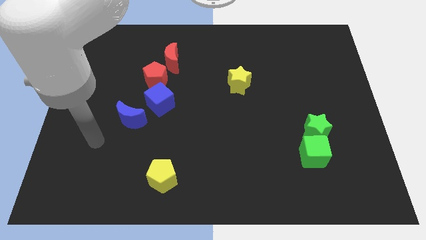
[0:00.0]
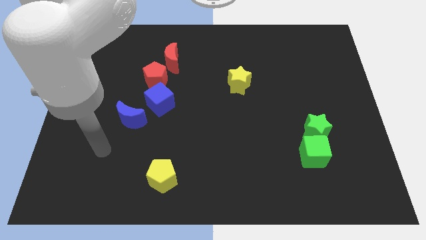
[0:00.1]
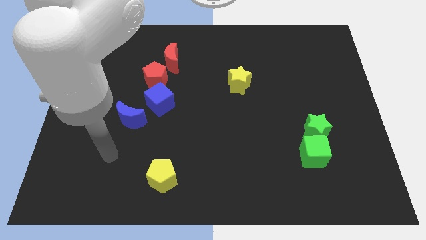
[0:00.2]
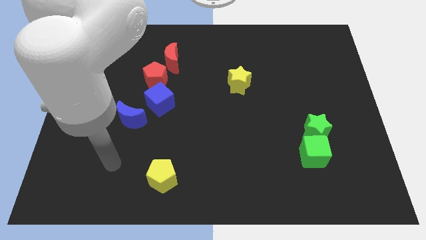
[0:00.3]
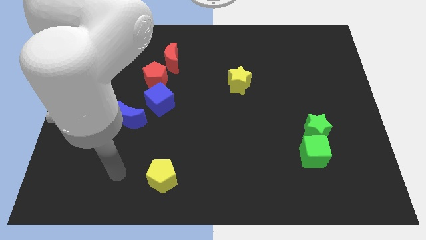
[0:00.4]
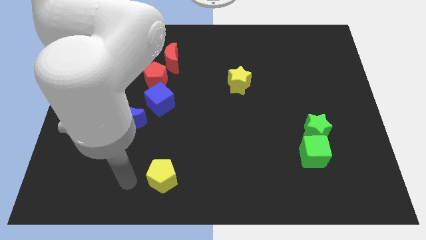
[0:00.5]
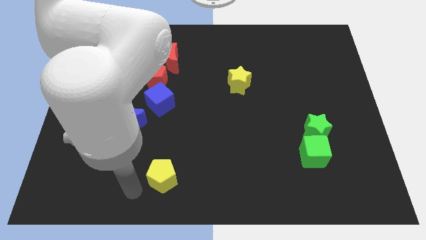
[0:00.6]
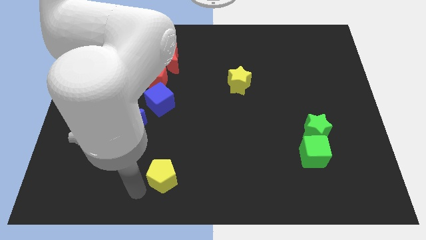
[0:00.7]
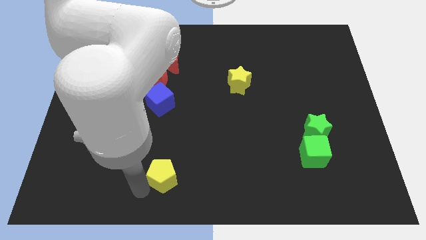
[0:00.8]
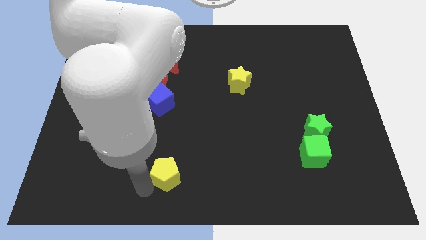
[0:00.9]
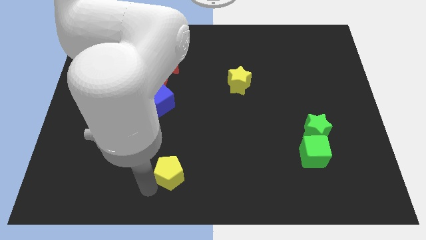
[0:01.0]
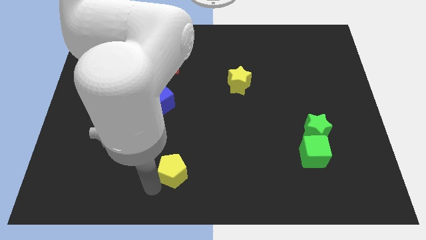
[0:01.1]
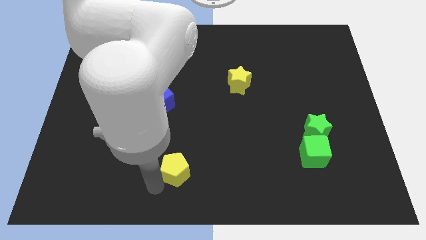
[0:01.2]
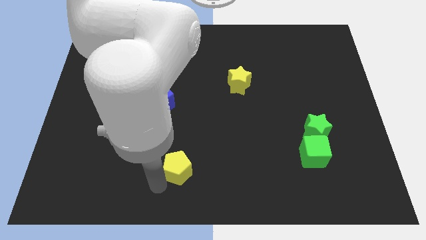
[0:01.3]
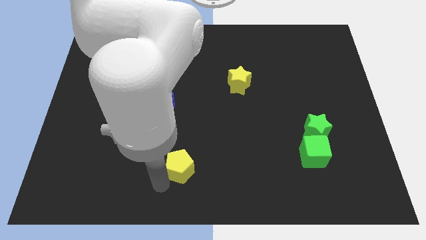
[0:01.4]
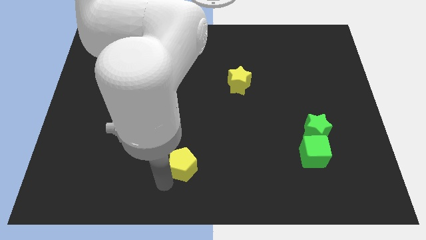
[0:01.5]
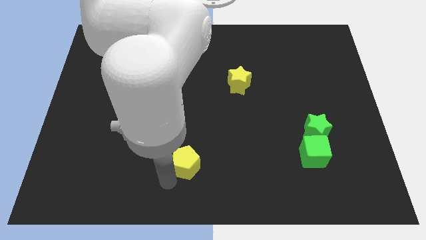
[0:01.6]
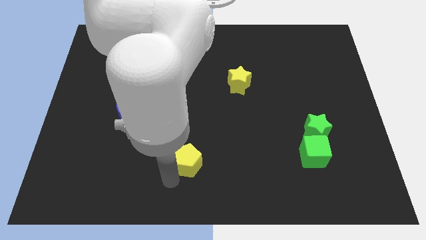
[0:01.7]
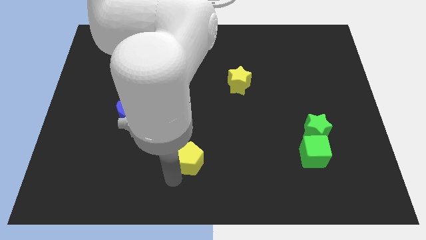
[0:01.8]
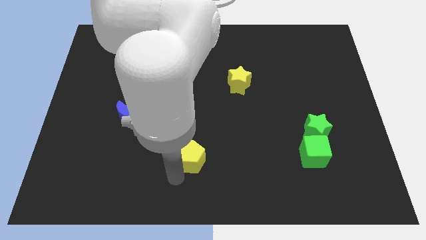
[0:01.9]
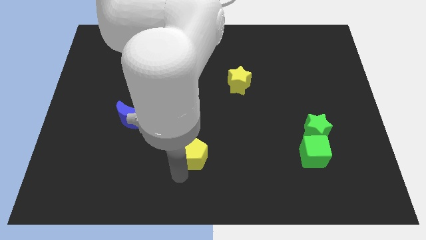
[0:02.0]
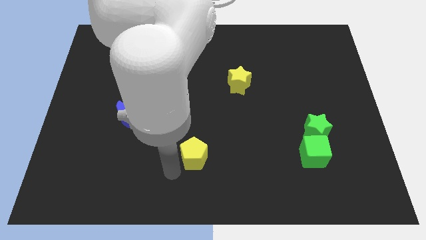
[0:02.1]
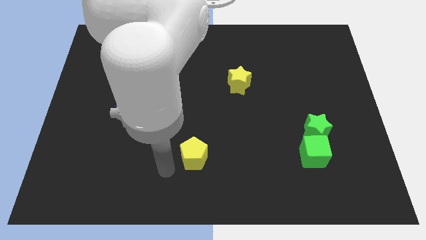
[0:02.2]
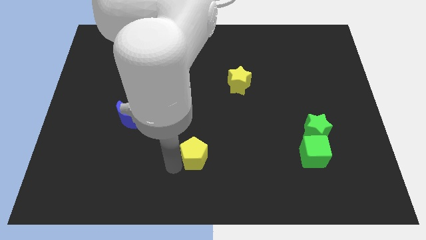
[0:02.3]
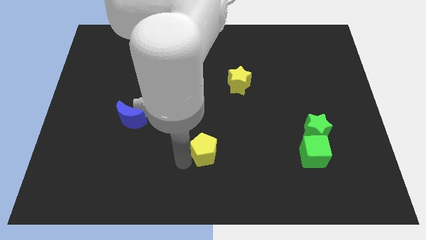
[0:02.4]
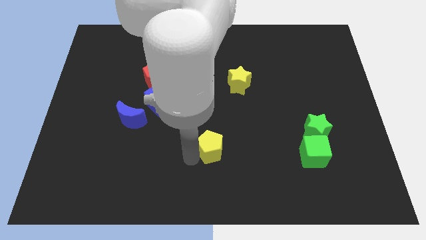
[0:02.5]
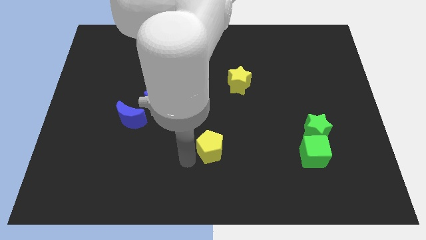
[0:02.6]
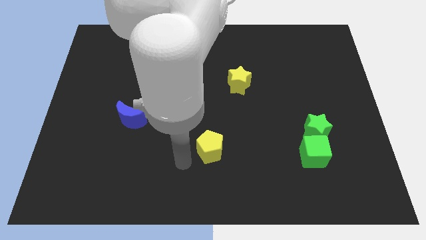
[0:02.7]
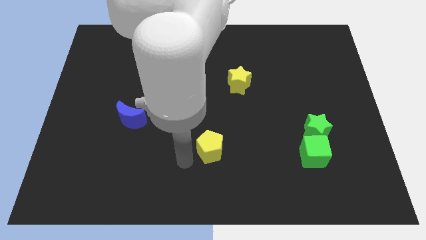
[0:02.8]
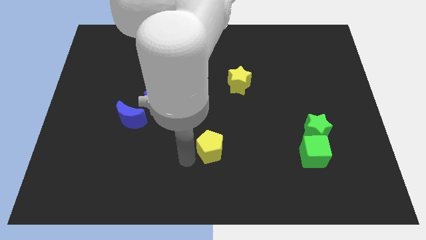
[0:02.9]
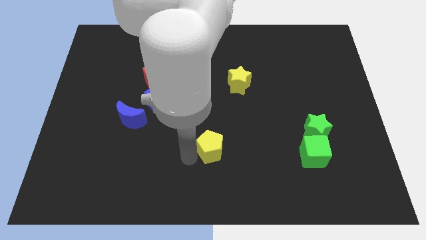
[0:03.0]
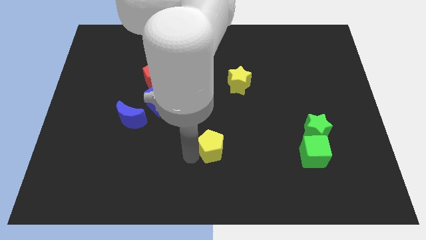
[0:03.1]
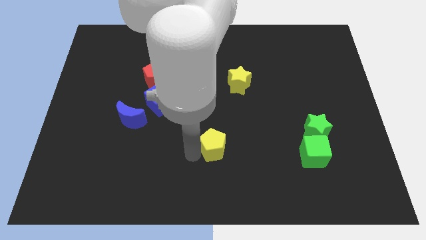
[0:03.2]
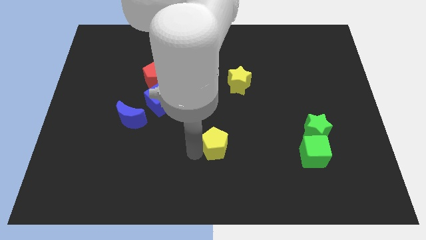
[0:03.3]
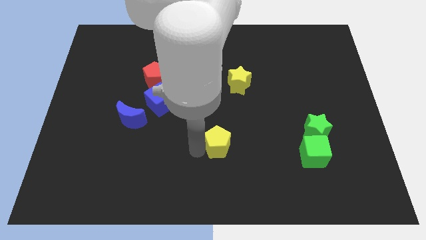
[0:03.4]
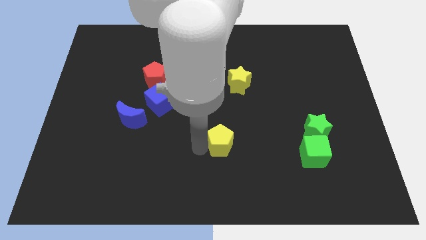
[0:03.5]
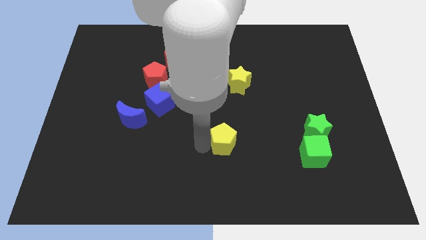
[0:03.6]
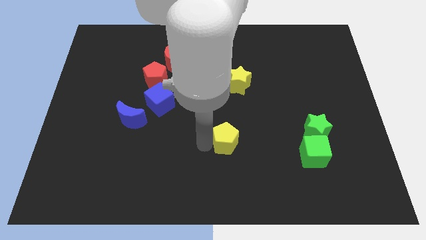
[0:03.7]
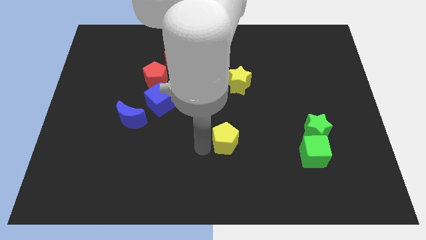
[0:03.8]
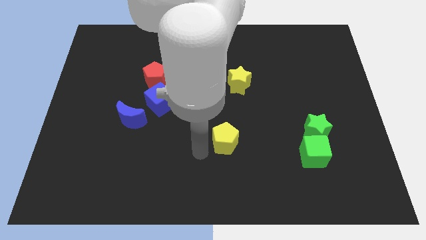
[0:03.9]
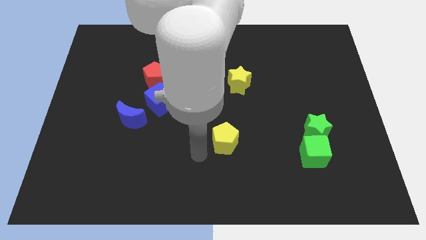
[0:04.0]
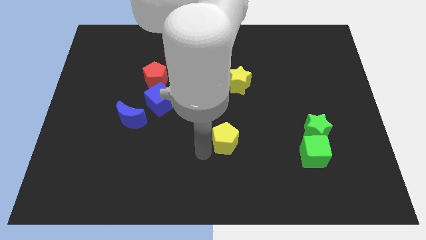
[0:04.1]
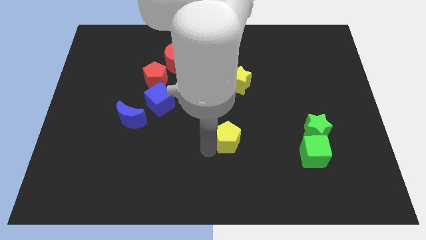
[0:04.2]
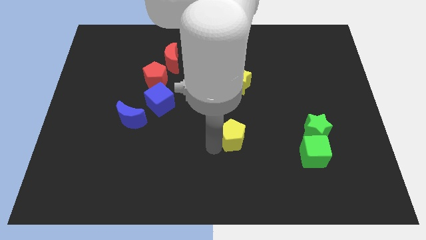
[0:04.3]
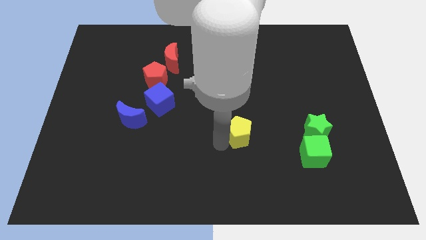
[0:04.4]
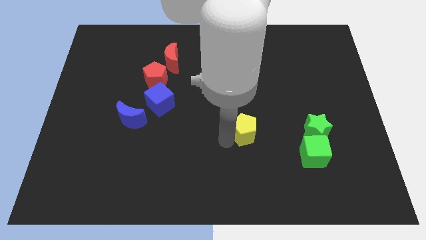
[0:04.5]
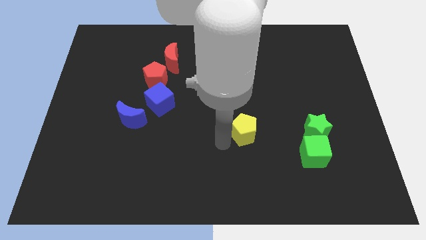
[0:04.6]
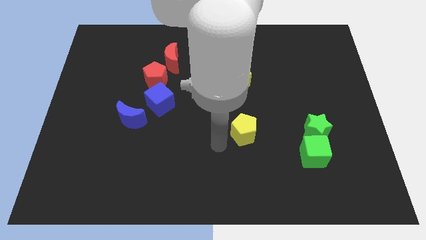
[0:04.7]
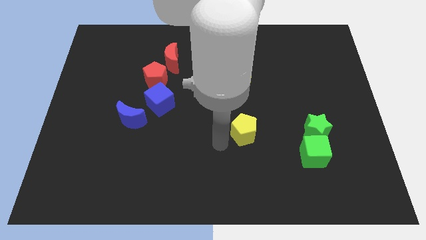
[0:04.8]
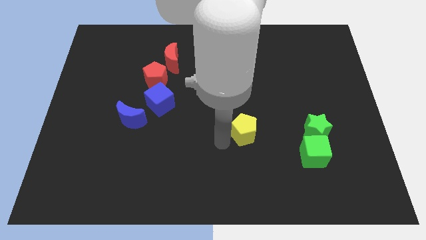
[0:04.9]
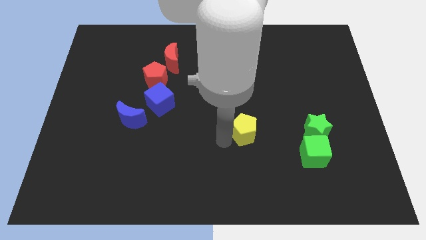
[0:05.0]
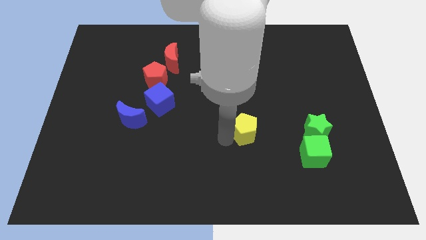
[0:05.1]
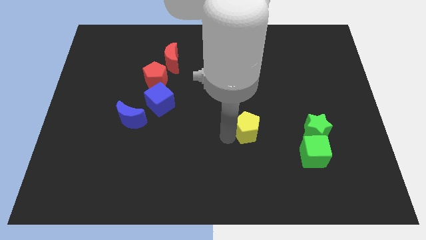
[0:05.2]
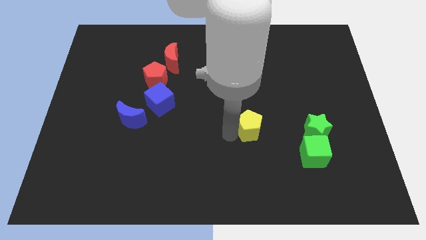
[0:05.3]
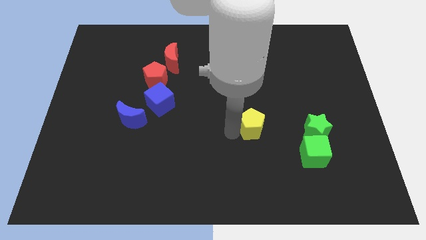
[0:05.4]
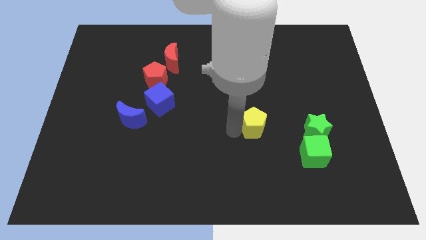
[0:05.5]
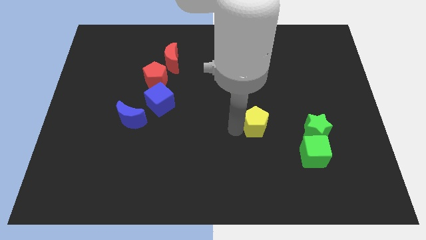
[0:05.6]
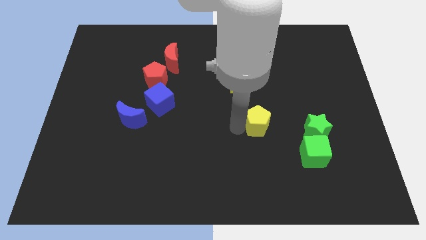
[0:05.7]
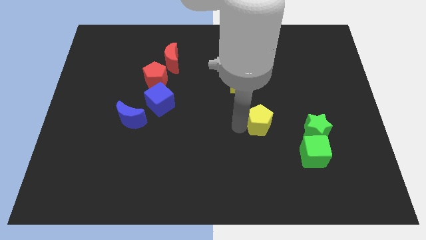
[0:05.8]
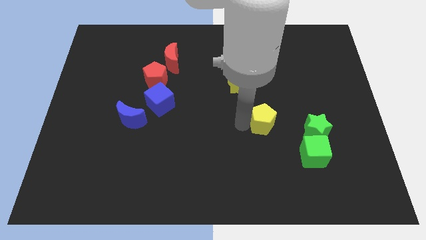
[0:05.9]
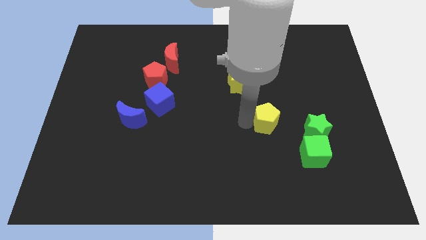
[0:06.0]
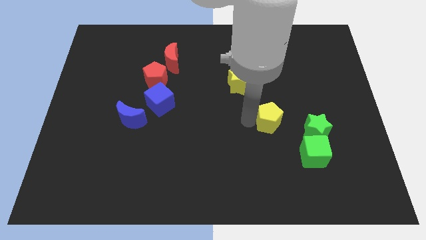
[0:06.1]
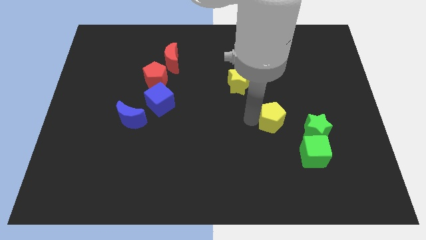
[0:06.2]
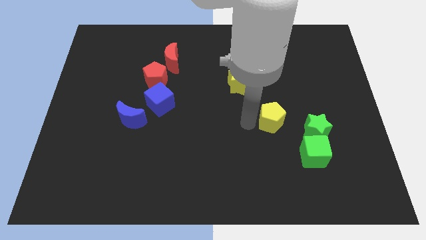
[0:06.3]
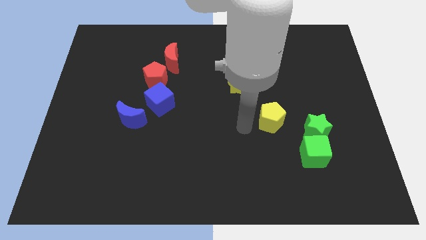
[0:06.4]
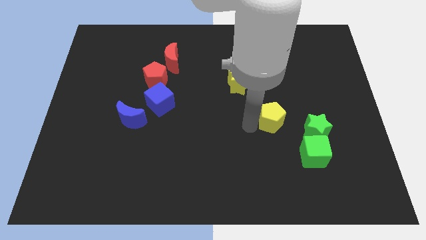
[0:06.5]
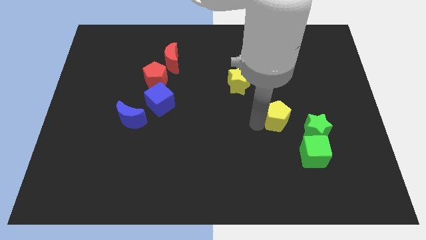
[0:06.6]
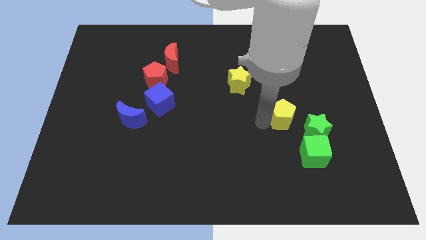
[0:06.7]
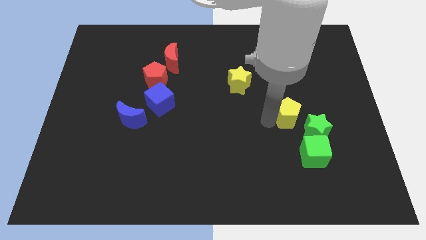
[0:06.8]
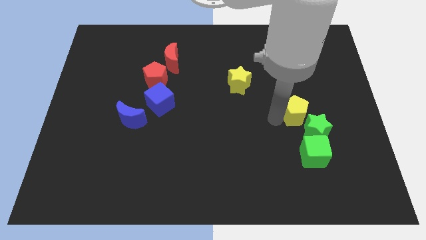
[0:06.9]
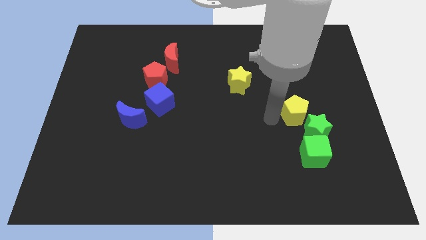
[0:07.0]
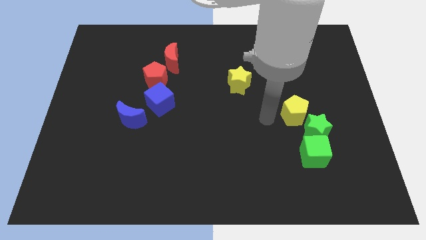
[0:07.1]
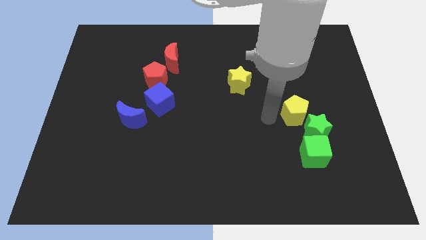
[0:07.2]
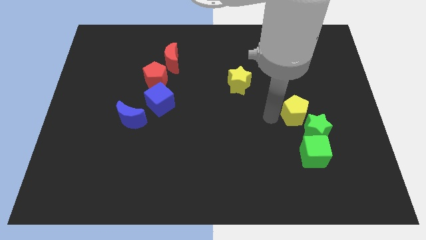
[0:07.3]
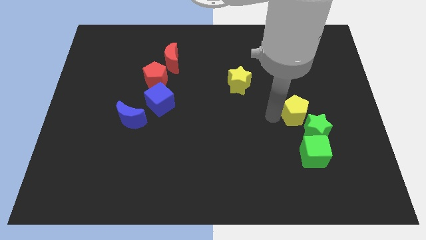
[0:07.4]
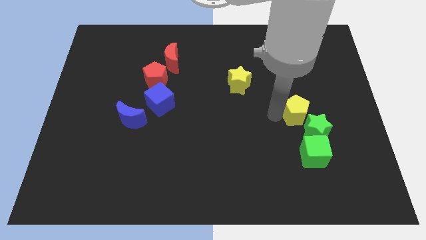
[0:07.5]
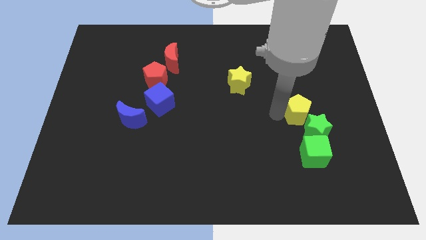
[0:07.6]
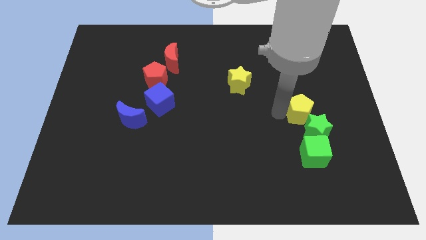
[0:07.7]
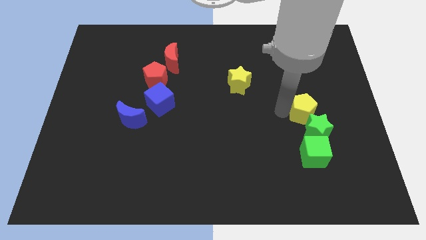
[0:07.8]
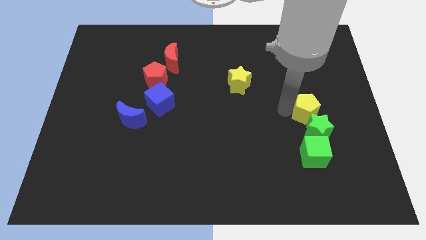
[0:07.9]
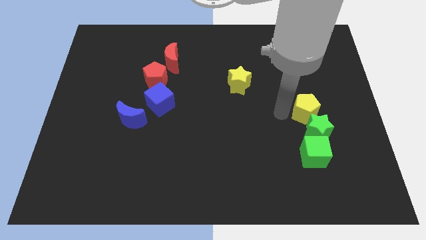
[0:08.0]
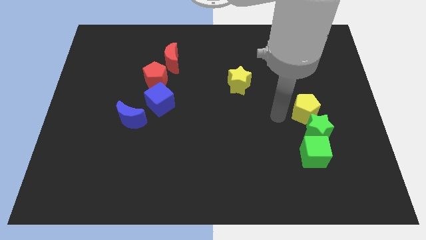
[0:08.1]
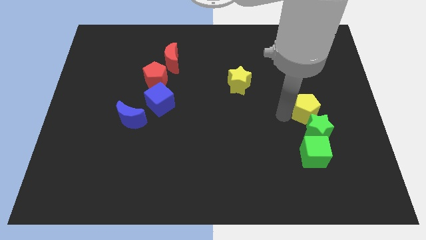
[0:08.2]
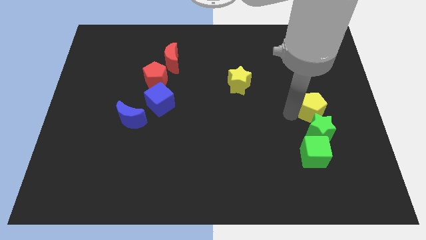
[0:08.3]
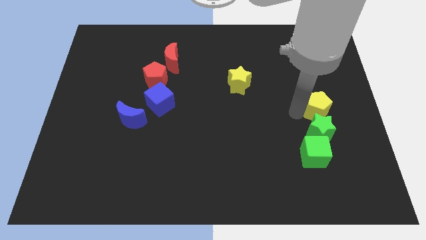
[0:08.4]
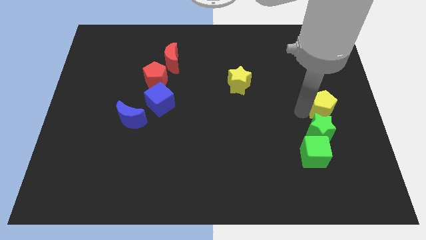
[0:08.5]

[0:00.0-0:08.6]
move the yellow pentagon to the right side of the board
